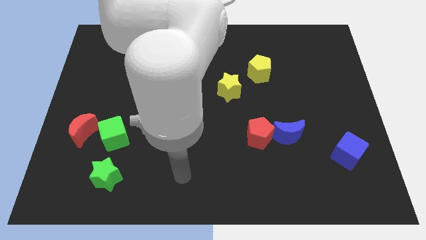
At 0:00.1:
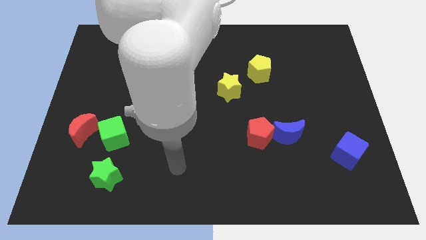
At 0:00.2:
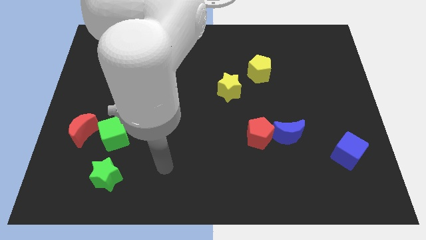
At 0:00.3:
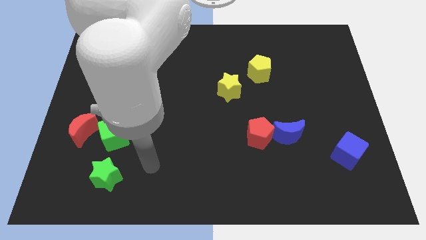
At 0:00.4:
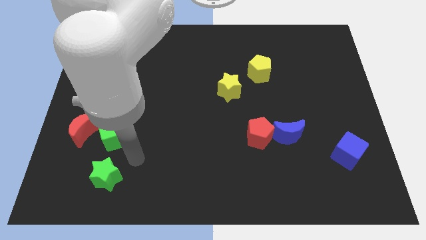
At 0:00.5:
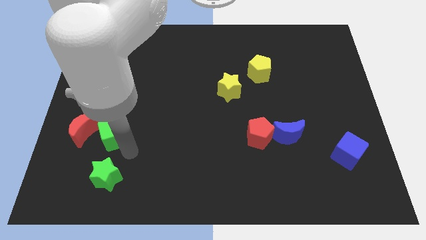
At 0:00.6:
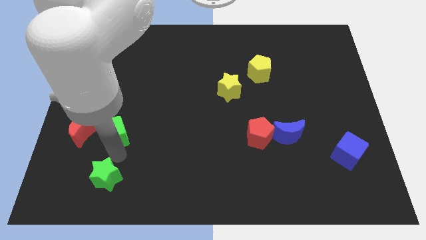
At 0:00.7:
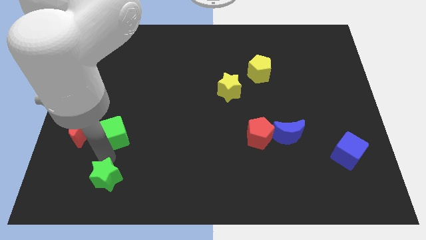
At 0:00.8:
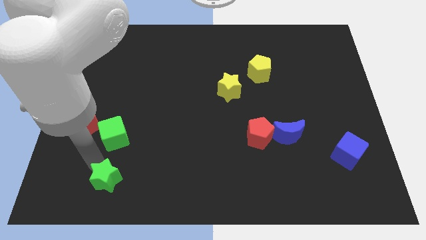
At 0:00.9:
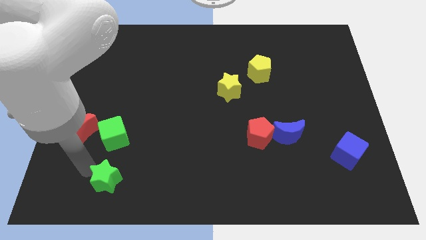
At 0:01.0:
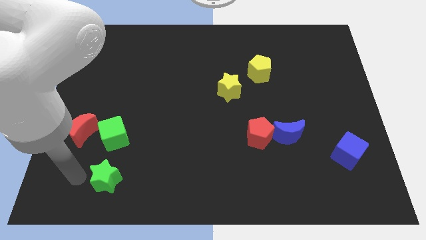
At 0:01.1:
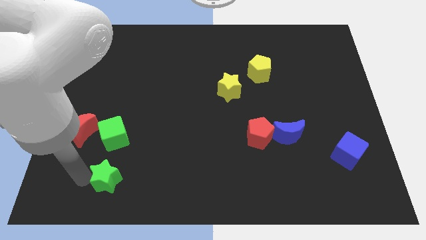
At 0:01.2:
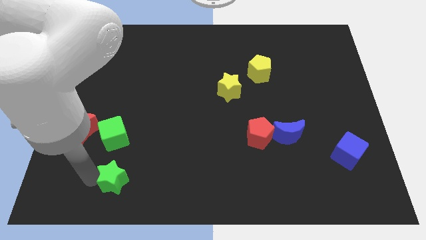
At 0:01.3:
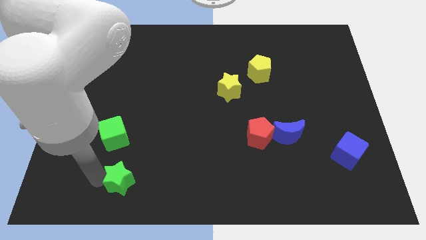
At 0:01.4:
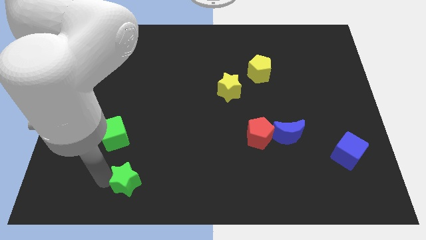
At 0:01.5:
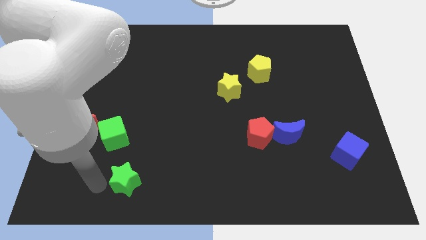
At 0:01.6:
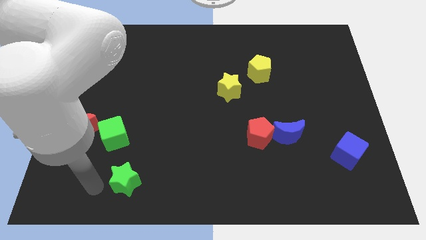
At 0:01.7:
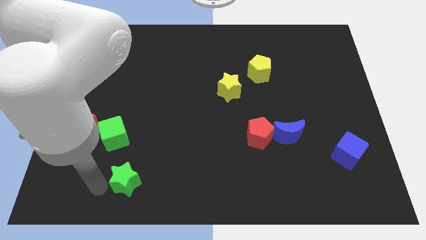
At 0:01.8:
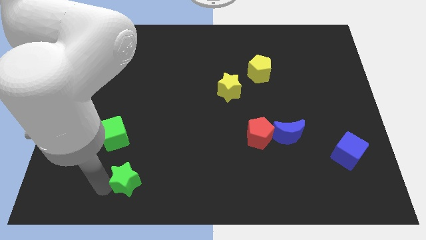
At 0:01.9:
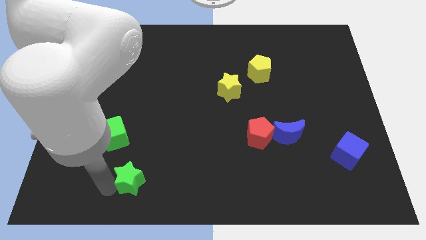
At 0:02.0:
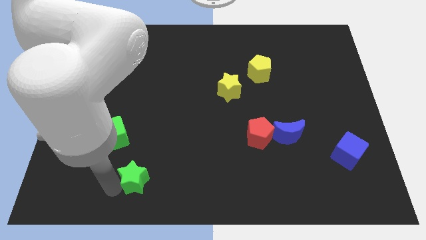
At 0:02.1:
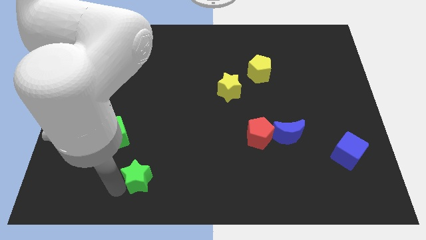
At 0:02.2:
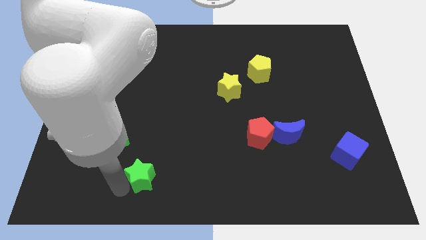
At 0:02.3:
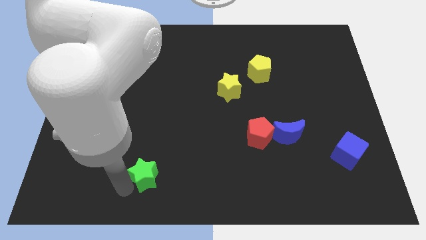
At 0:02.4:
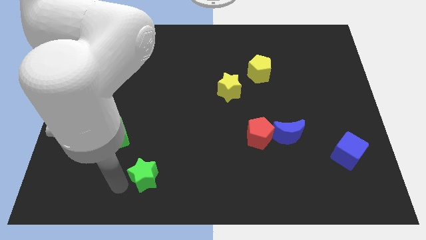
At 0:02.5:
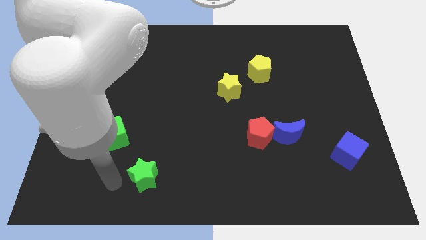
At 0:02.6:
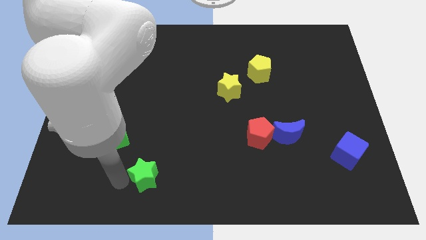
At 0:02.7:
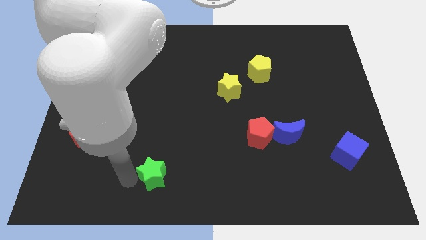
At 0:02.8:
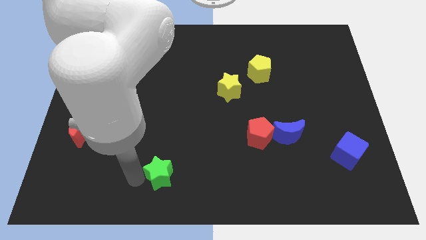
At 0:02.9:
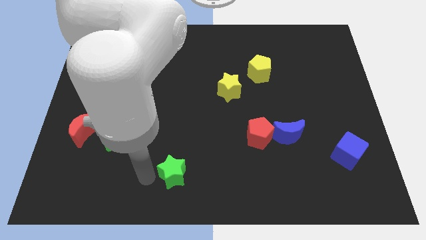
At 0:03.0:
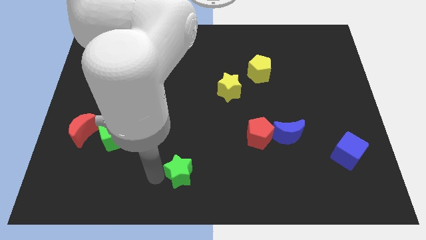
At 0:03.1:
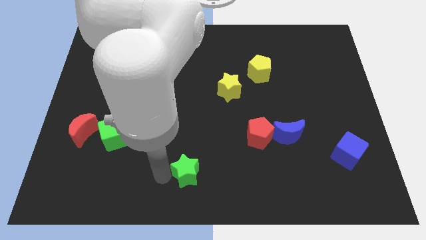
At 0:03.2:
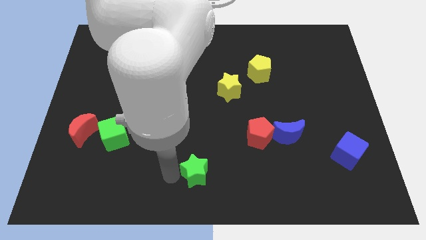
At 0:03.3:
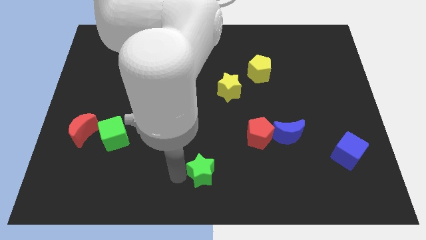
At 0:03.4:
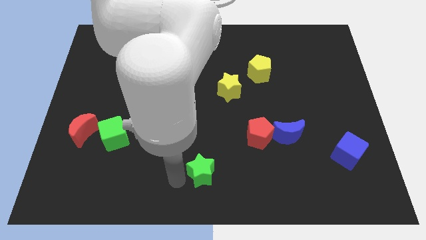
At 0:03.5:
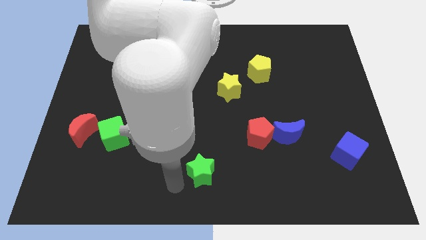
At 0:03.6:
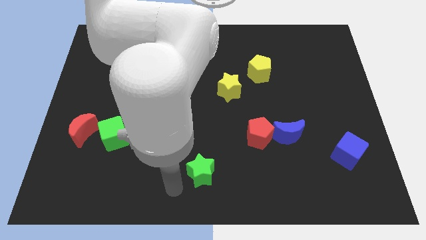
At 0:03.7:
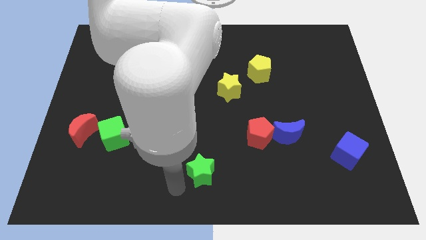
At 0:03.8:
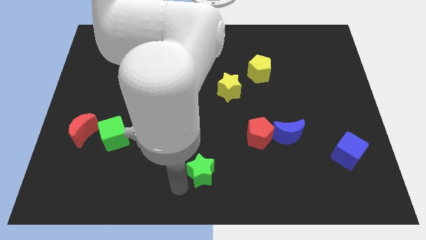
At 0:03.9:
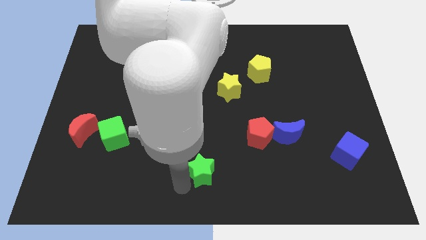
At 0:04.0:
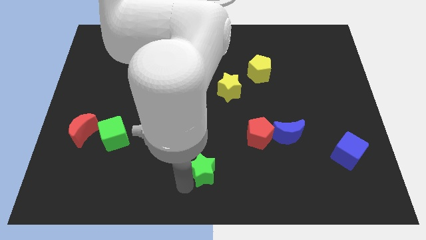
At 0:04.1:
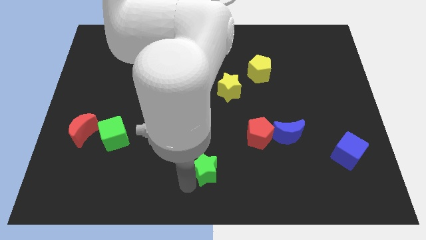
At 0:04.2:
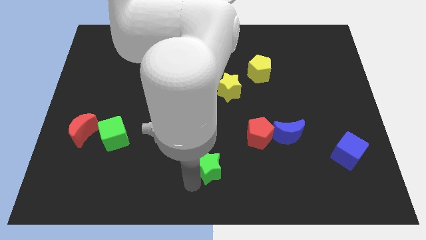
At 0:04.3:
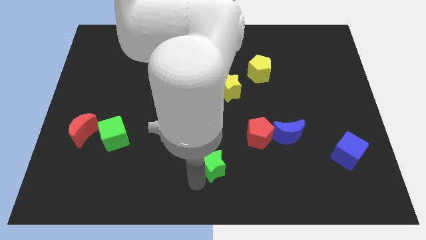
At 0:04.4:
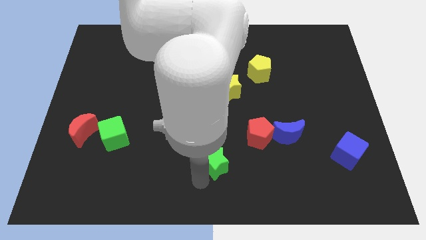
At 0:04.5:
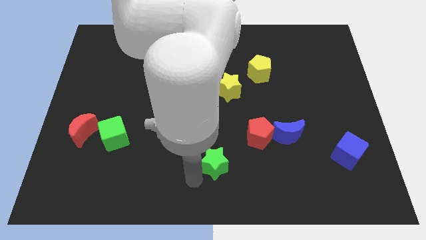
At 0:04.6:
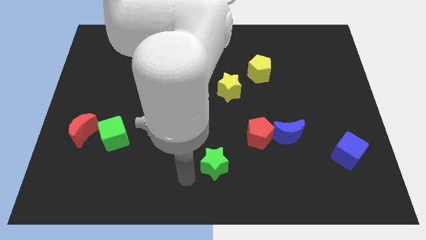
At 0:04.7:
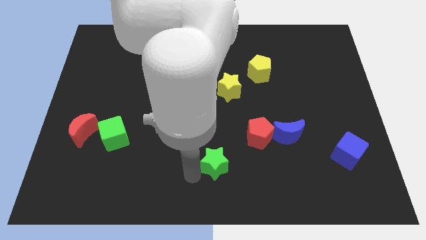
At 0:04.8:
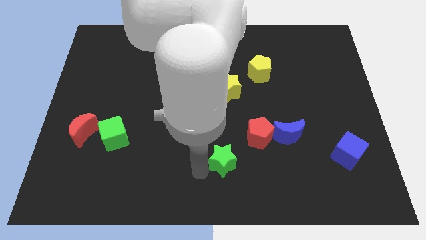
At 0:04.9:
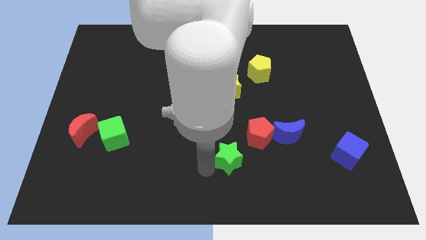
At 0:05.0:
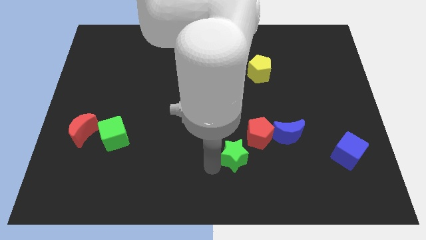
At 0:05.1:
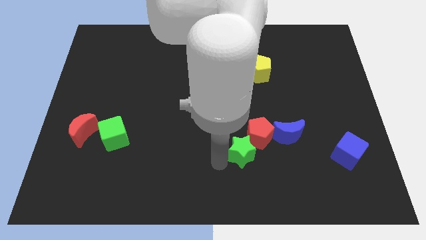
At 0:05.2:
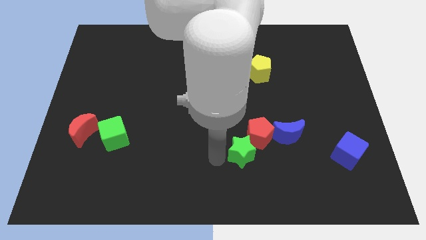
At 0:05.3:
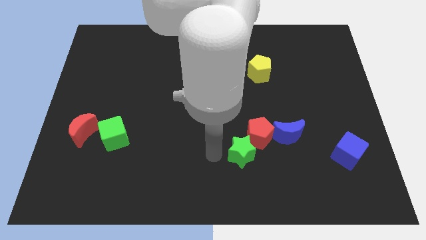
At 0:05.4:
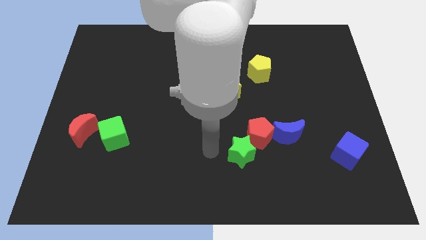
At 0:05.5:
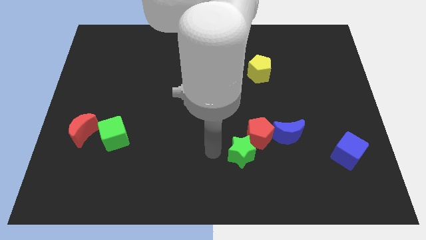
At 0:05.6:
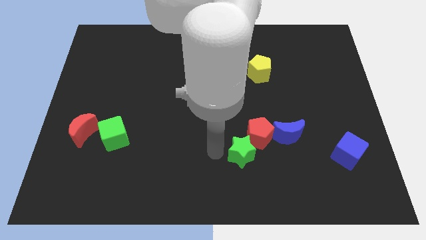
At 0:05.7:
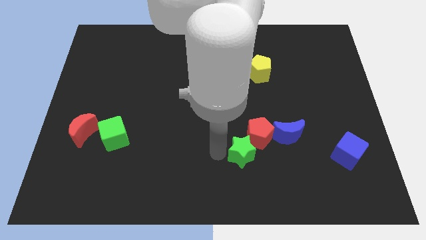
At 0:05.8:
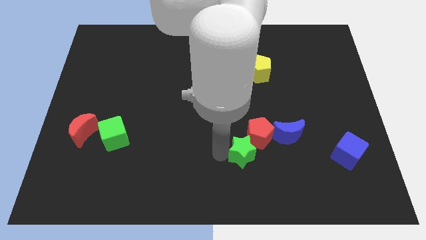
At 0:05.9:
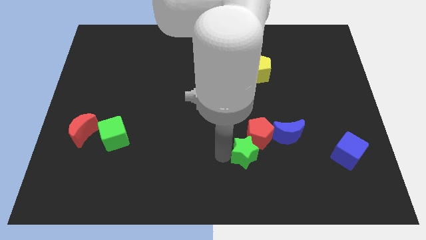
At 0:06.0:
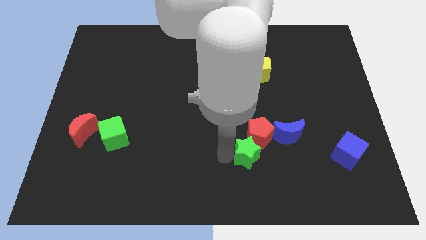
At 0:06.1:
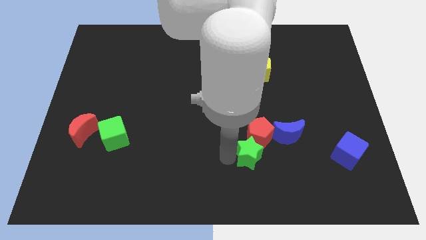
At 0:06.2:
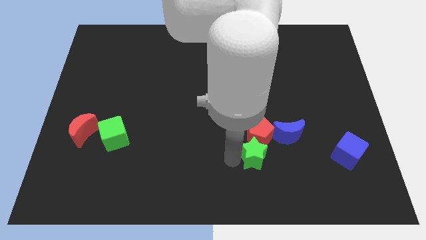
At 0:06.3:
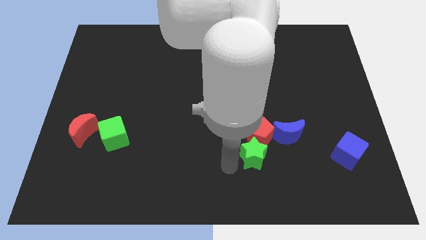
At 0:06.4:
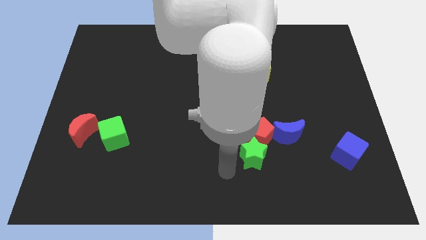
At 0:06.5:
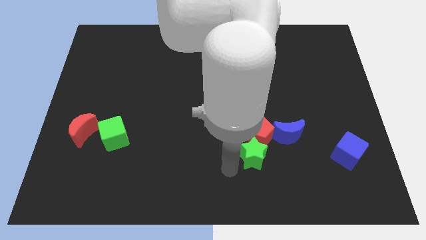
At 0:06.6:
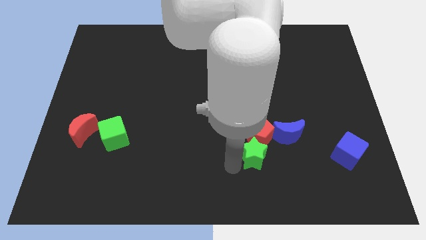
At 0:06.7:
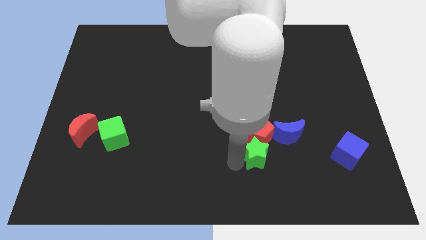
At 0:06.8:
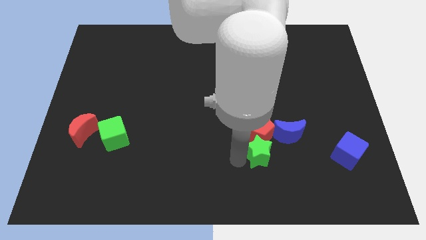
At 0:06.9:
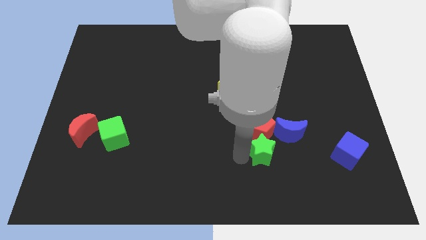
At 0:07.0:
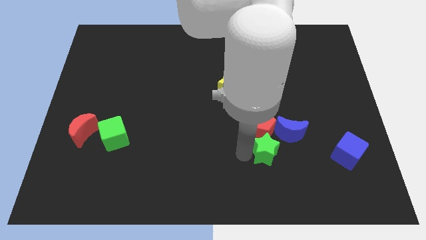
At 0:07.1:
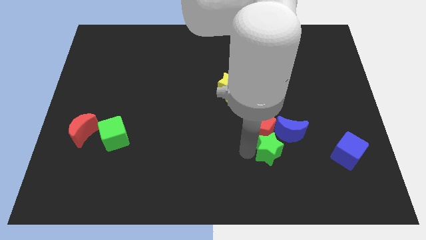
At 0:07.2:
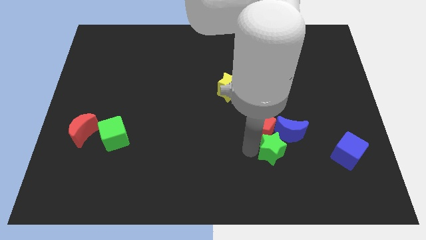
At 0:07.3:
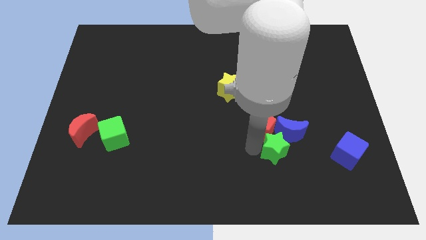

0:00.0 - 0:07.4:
push the green star to the blue moon

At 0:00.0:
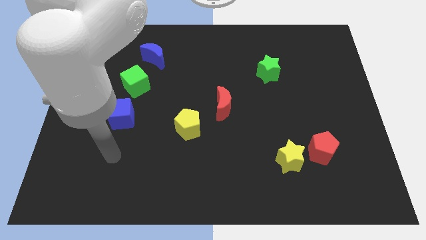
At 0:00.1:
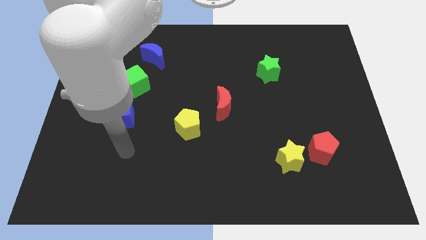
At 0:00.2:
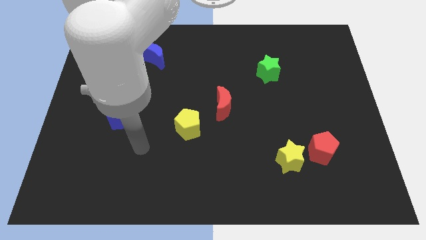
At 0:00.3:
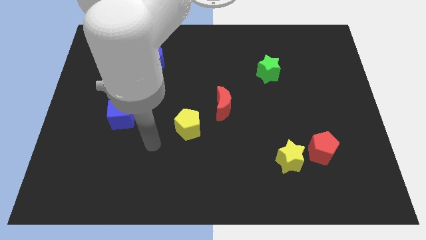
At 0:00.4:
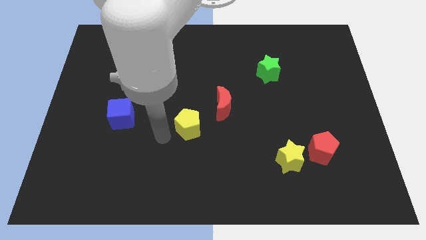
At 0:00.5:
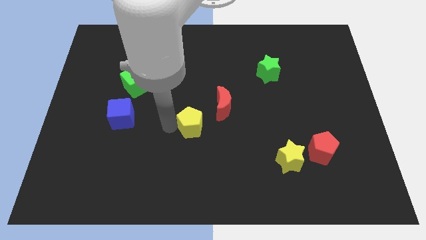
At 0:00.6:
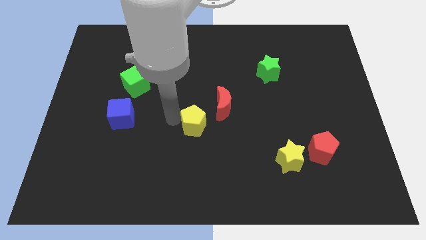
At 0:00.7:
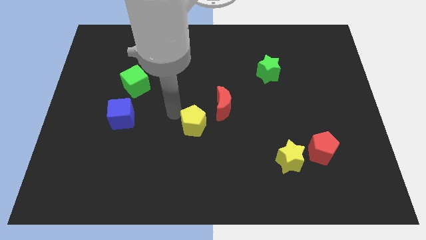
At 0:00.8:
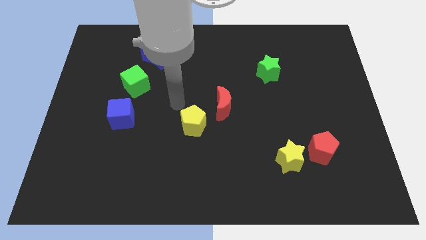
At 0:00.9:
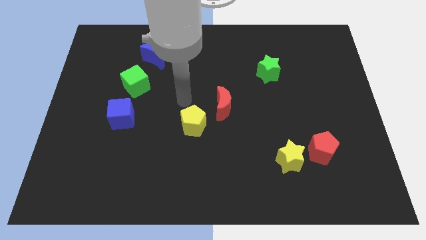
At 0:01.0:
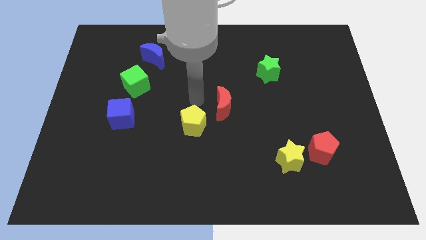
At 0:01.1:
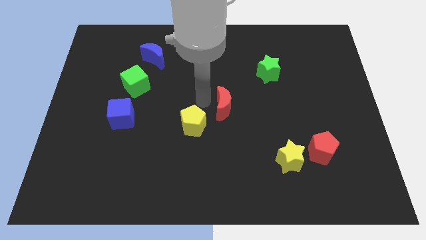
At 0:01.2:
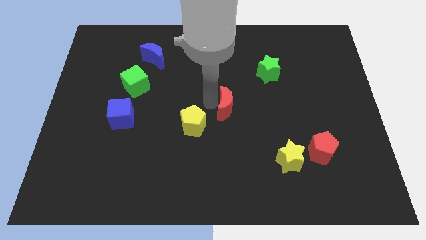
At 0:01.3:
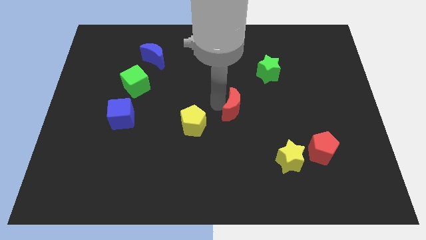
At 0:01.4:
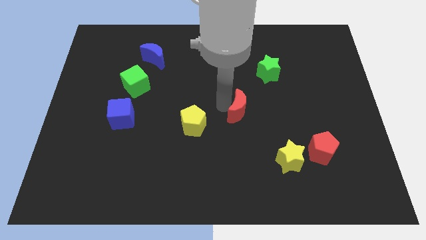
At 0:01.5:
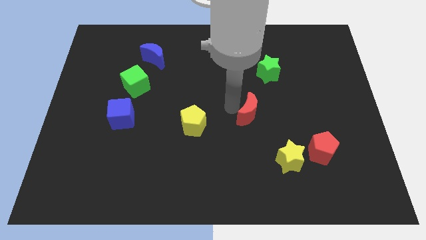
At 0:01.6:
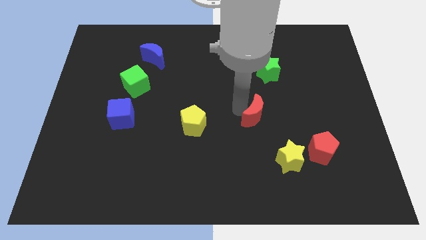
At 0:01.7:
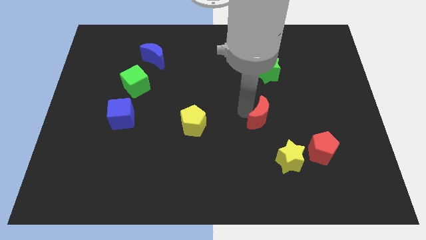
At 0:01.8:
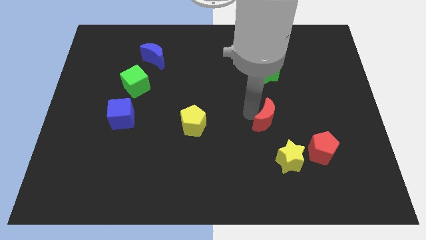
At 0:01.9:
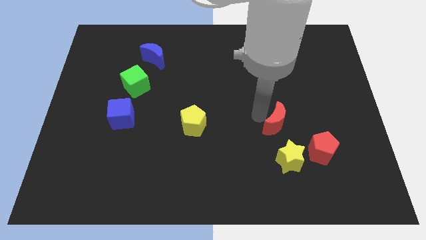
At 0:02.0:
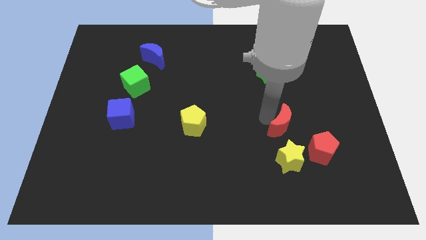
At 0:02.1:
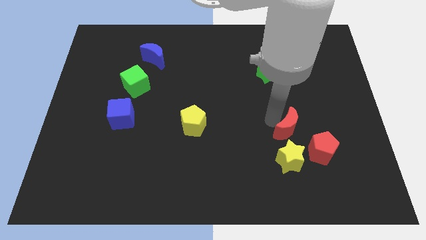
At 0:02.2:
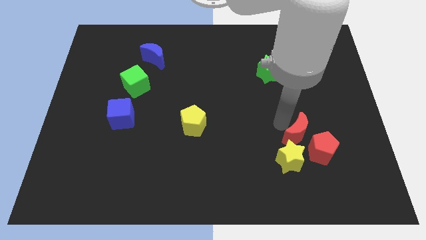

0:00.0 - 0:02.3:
put the red moon close to the red pentagon
